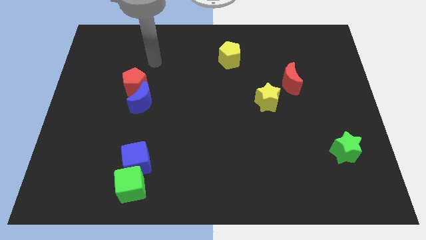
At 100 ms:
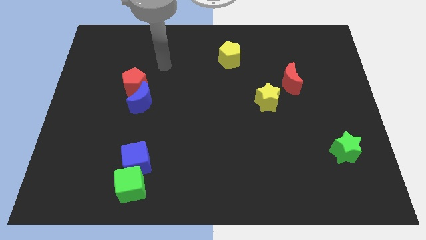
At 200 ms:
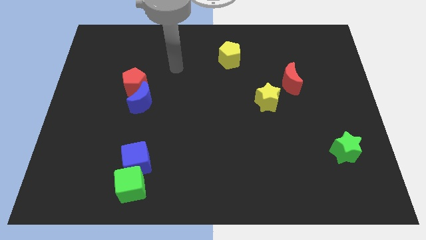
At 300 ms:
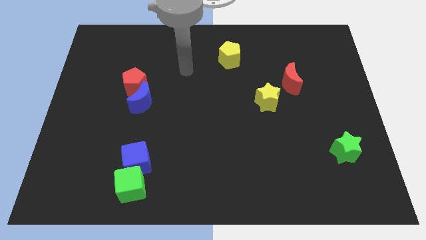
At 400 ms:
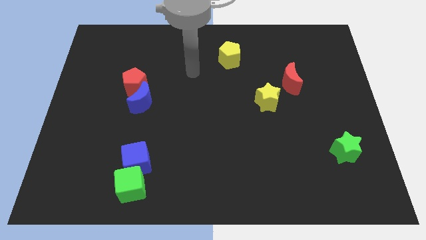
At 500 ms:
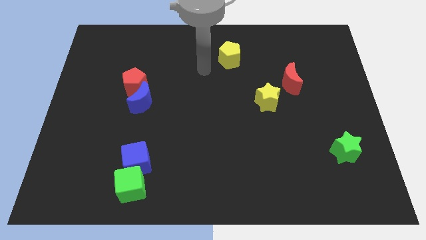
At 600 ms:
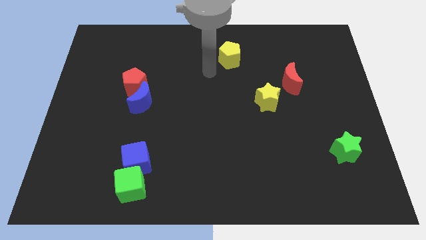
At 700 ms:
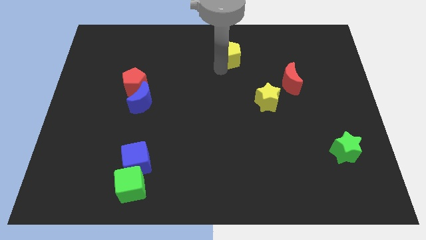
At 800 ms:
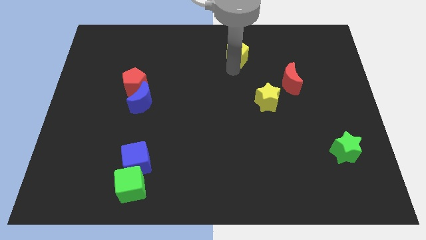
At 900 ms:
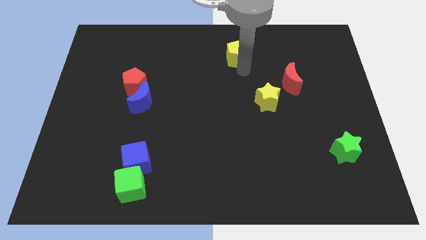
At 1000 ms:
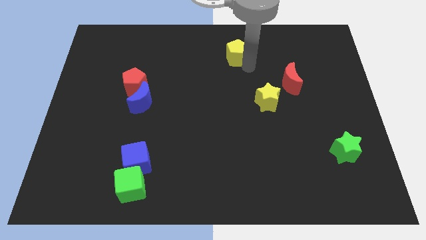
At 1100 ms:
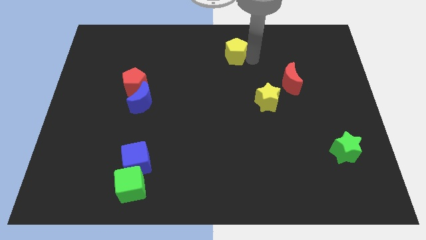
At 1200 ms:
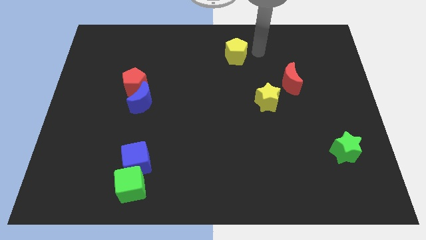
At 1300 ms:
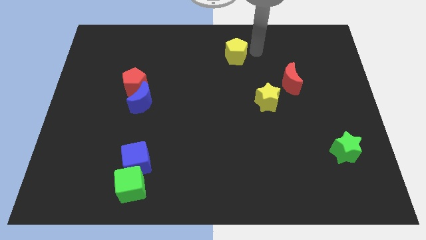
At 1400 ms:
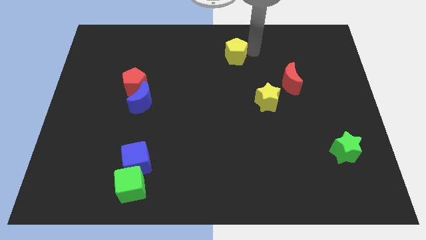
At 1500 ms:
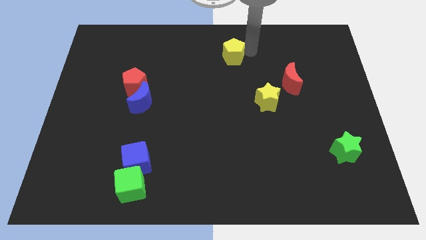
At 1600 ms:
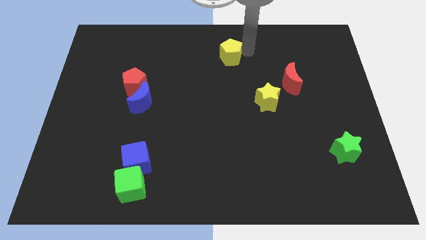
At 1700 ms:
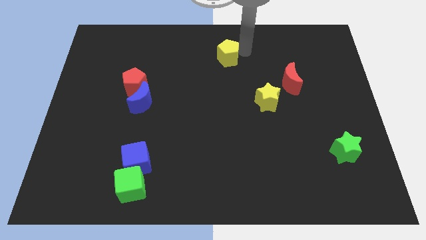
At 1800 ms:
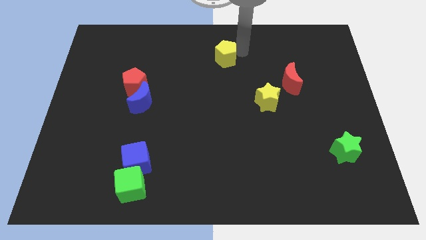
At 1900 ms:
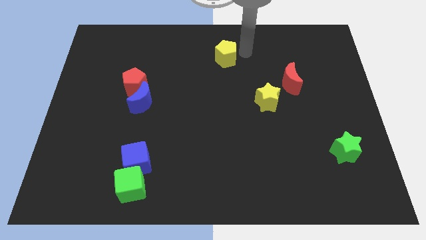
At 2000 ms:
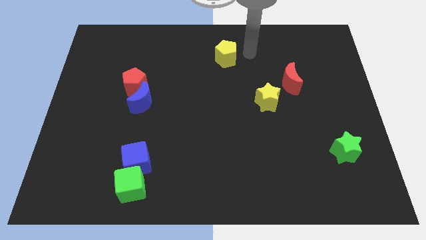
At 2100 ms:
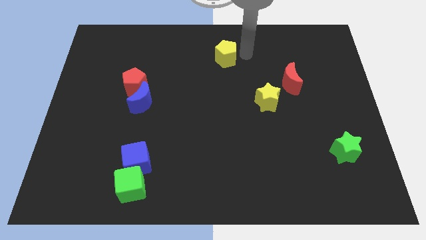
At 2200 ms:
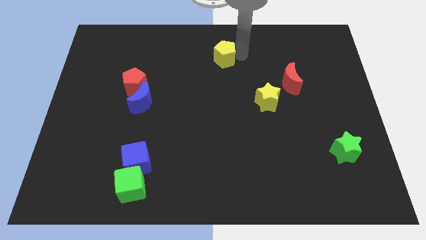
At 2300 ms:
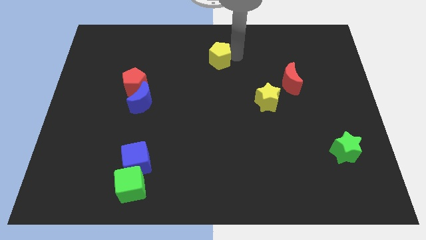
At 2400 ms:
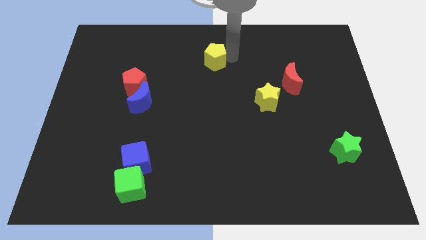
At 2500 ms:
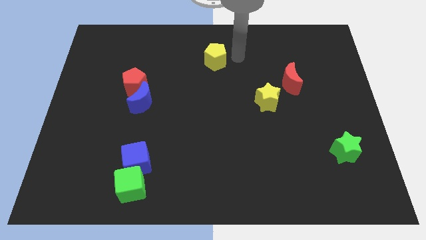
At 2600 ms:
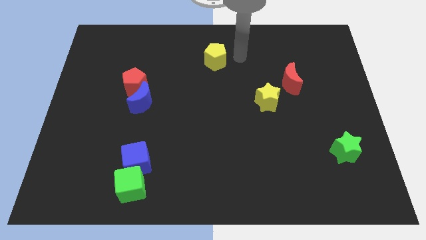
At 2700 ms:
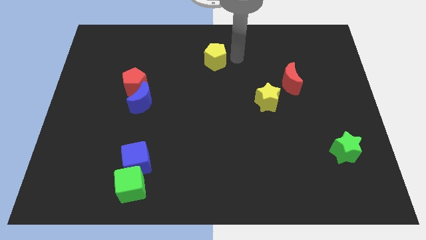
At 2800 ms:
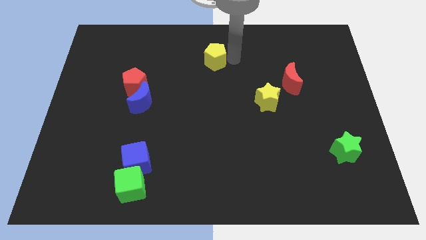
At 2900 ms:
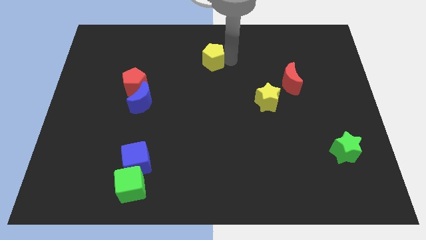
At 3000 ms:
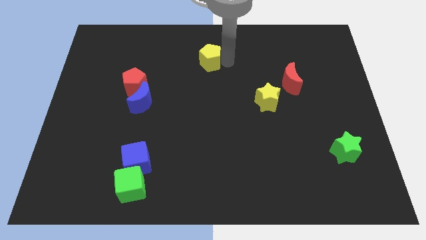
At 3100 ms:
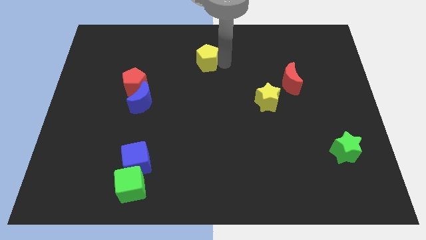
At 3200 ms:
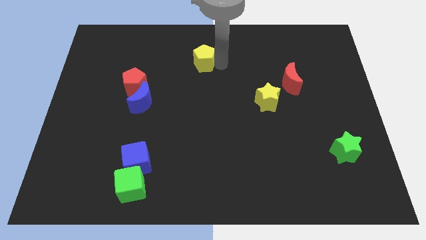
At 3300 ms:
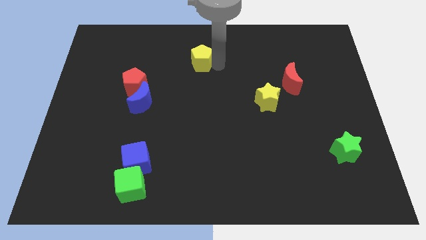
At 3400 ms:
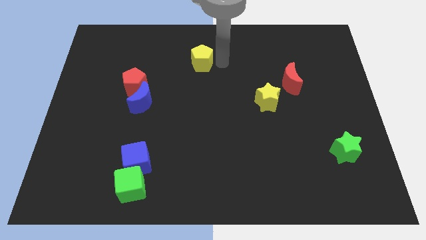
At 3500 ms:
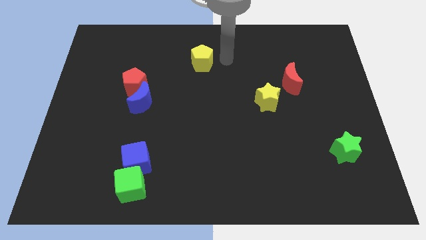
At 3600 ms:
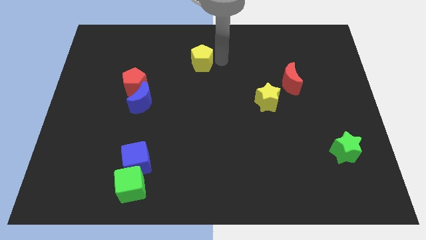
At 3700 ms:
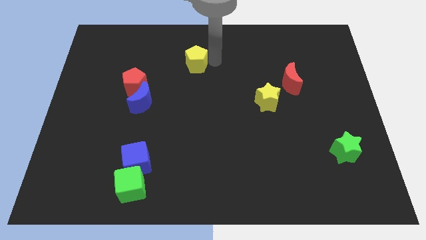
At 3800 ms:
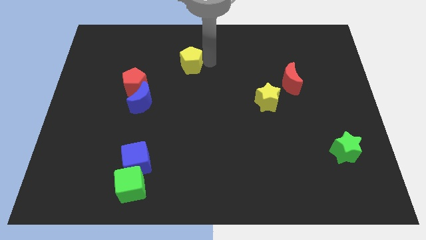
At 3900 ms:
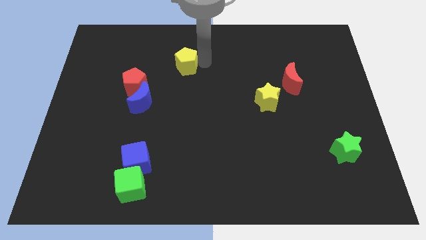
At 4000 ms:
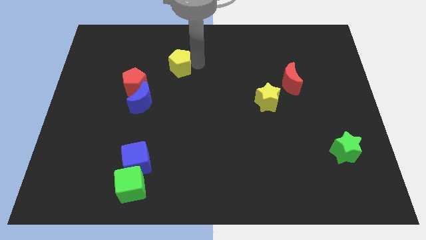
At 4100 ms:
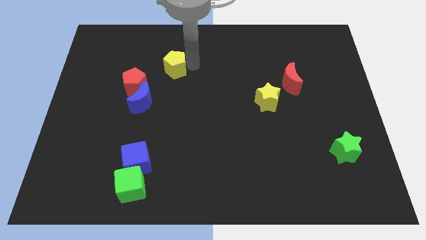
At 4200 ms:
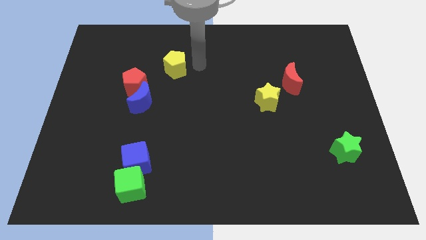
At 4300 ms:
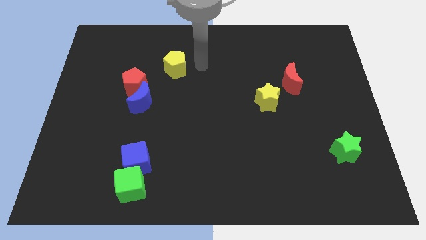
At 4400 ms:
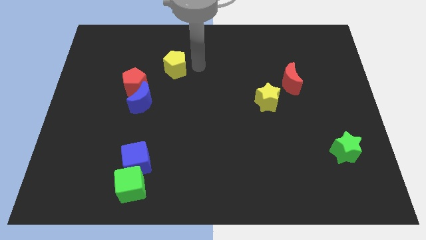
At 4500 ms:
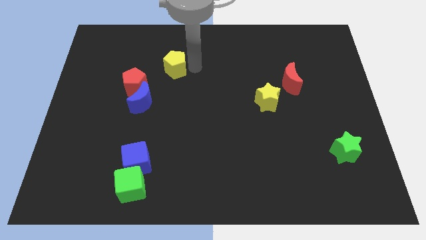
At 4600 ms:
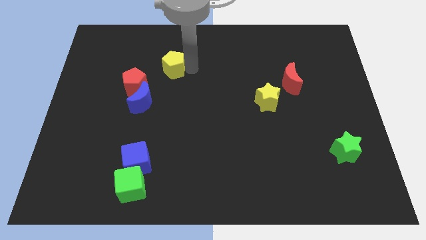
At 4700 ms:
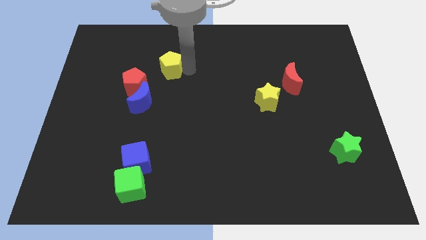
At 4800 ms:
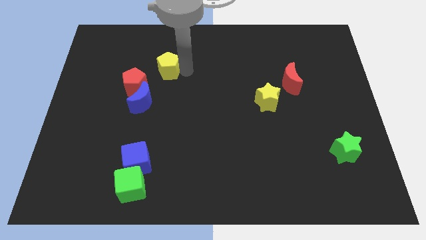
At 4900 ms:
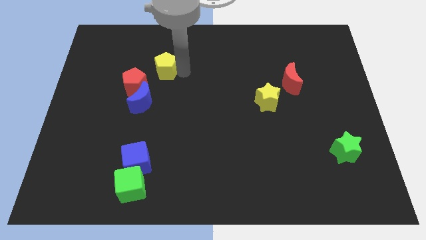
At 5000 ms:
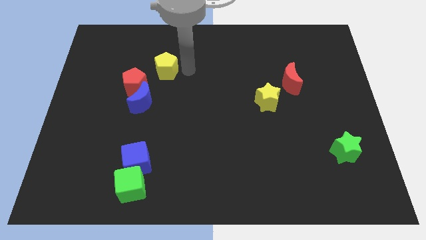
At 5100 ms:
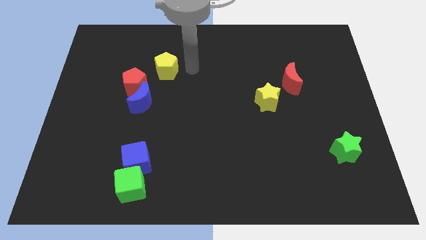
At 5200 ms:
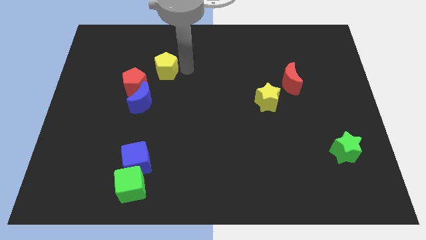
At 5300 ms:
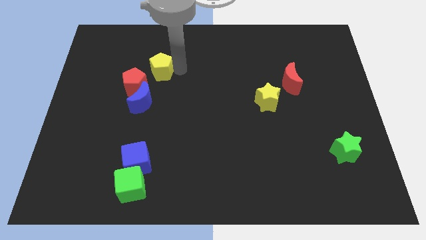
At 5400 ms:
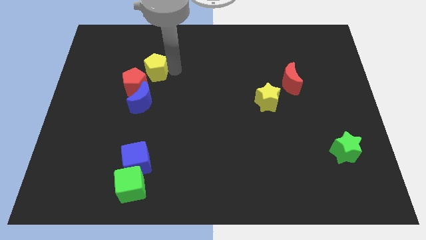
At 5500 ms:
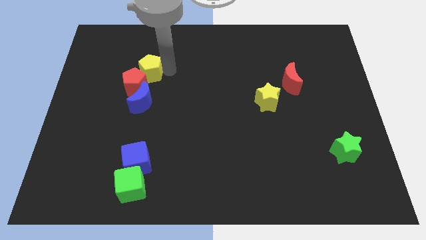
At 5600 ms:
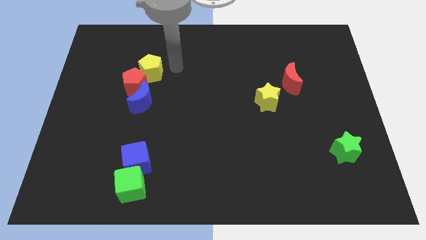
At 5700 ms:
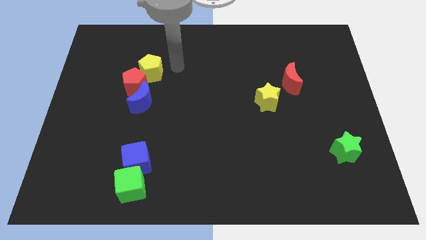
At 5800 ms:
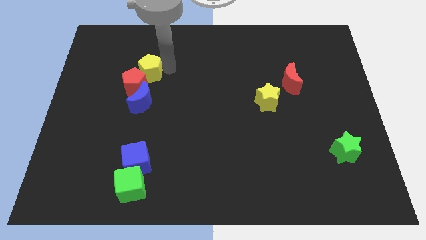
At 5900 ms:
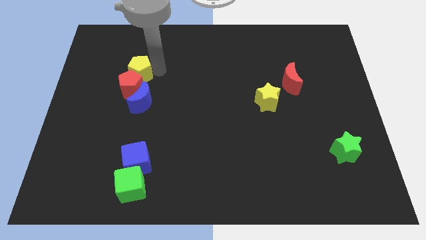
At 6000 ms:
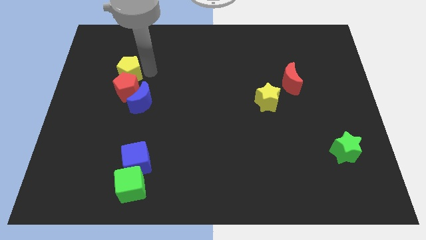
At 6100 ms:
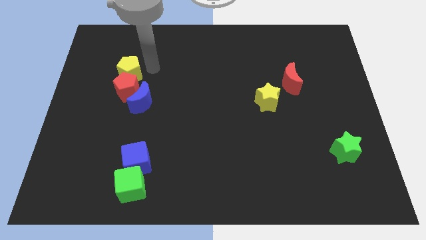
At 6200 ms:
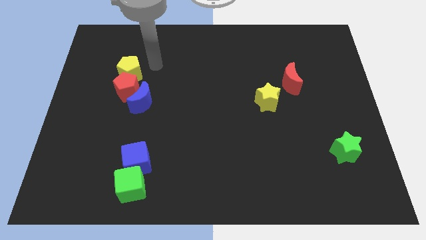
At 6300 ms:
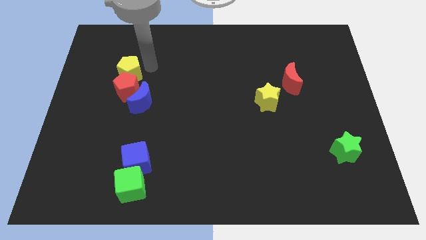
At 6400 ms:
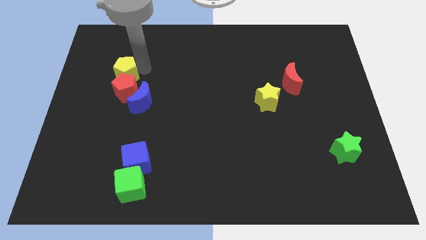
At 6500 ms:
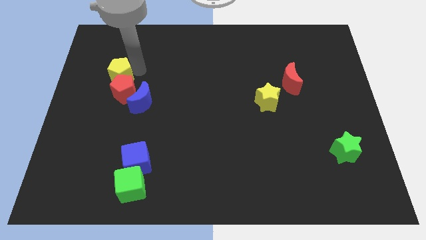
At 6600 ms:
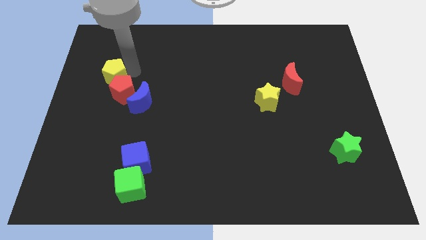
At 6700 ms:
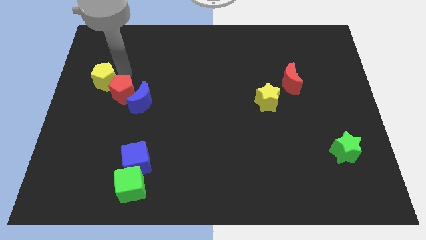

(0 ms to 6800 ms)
slide the yellow pentagon to the left side
